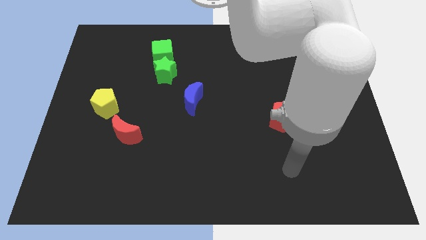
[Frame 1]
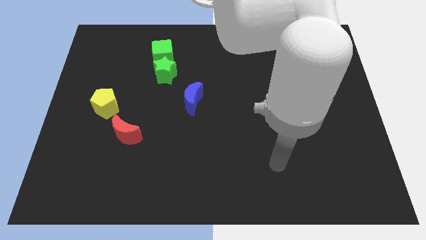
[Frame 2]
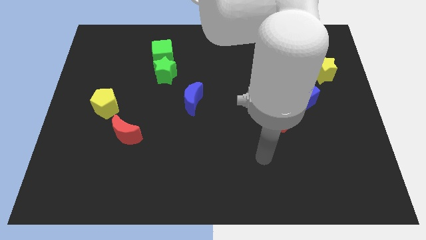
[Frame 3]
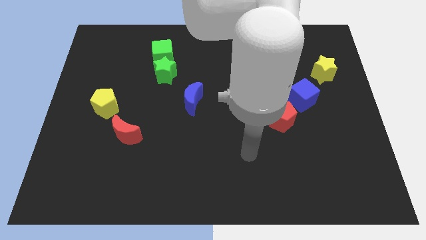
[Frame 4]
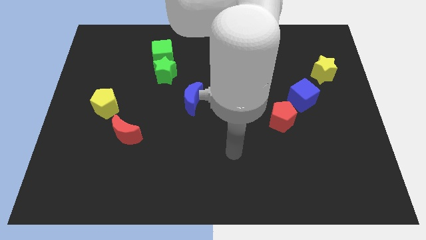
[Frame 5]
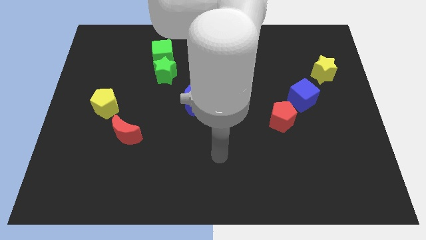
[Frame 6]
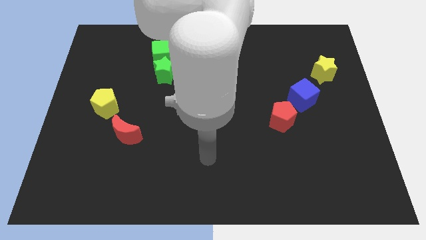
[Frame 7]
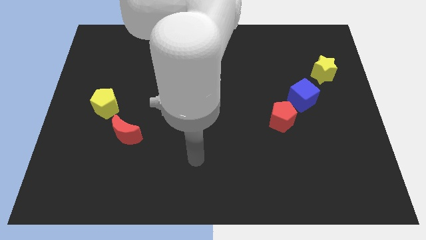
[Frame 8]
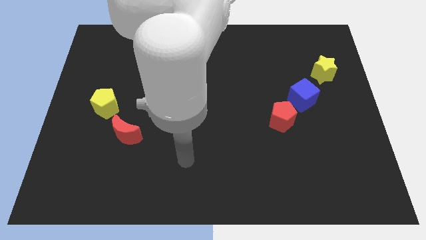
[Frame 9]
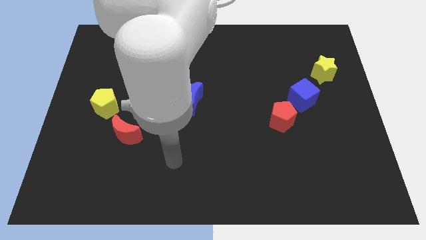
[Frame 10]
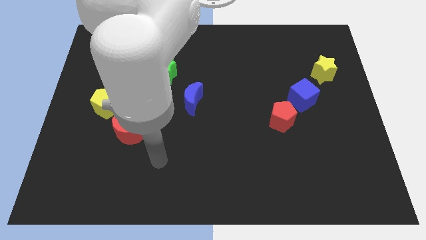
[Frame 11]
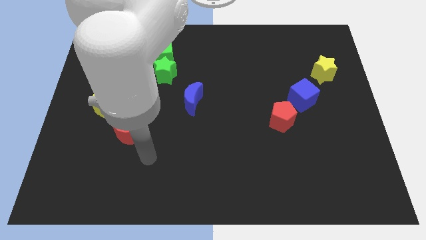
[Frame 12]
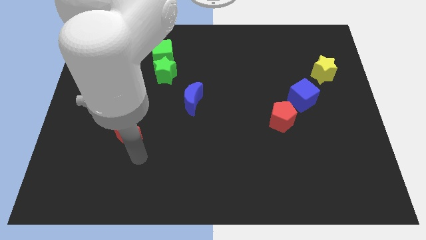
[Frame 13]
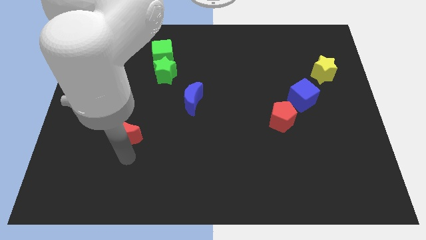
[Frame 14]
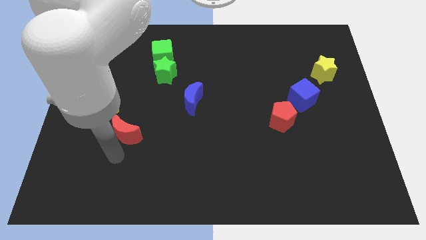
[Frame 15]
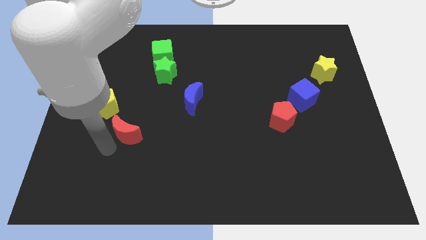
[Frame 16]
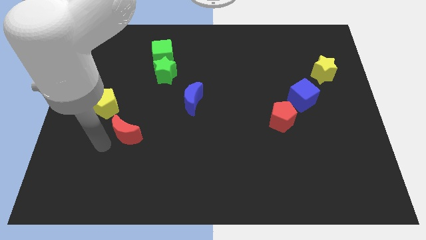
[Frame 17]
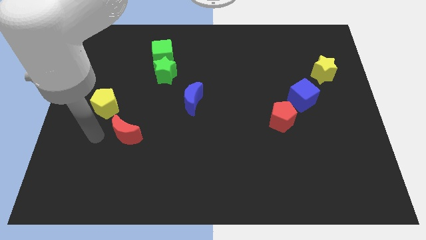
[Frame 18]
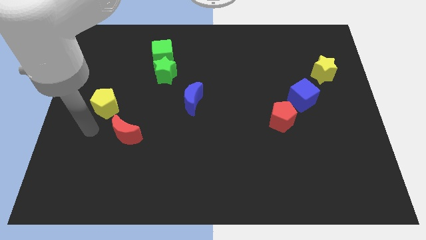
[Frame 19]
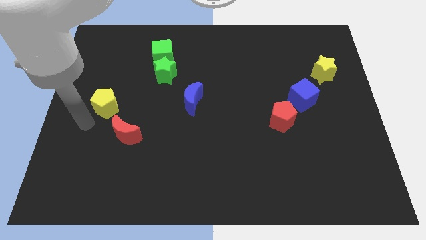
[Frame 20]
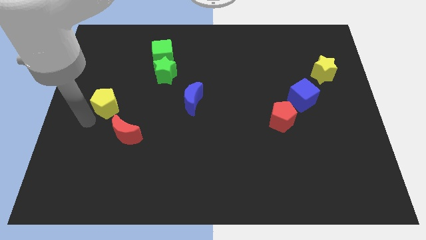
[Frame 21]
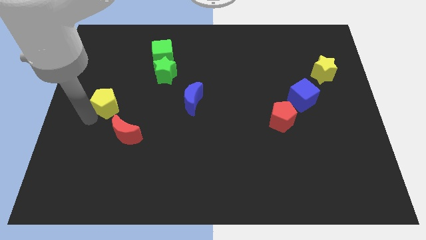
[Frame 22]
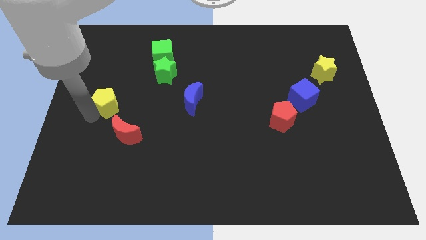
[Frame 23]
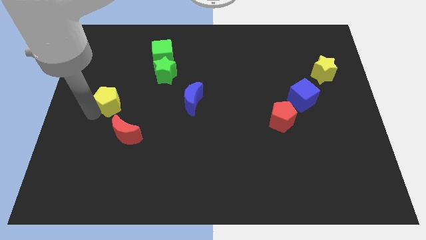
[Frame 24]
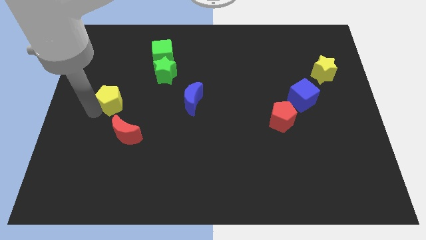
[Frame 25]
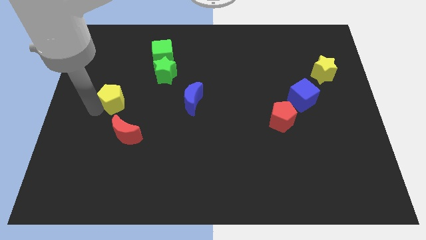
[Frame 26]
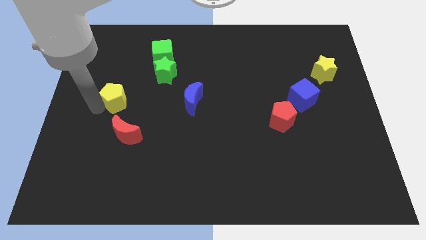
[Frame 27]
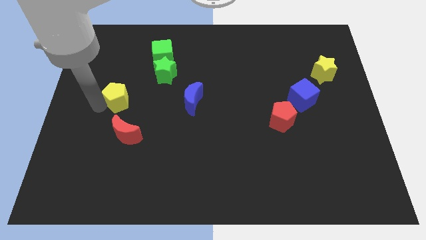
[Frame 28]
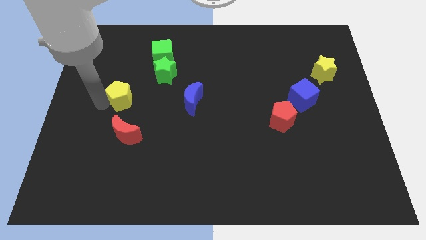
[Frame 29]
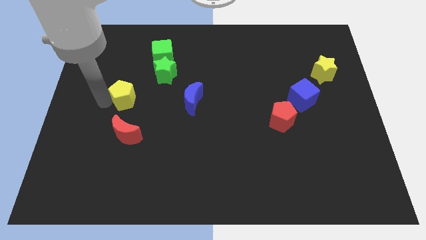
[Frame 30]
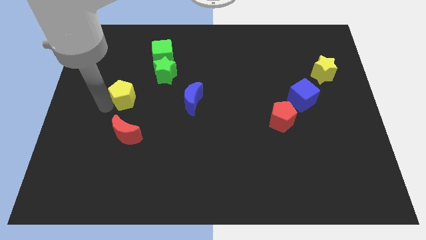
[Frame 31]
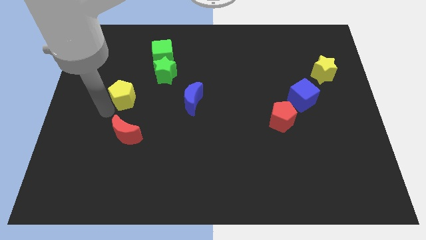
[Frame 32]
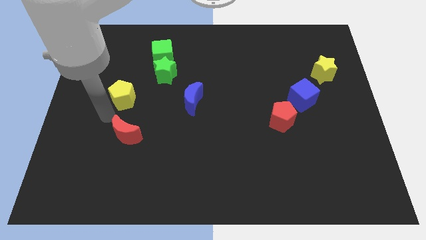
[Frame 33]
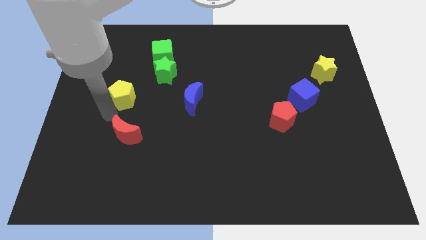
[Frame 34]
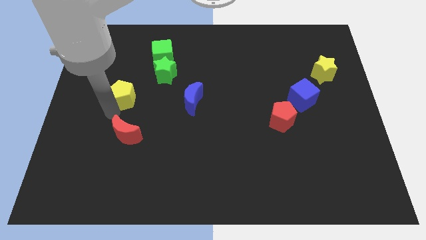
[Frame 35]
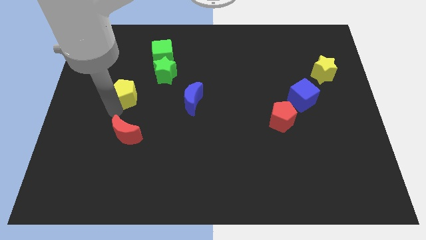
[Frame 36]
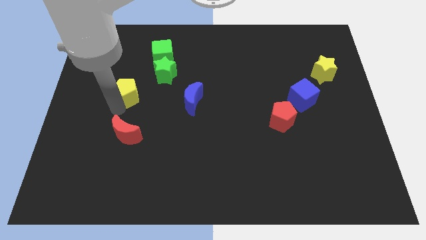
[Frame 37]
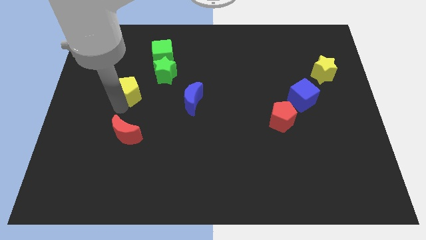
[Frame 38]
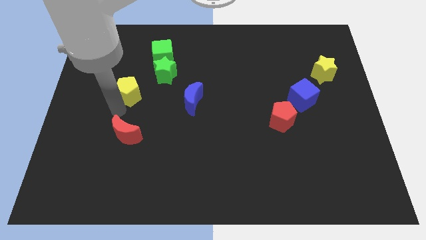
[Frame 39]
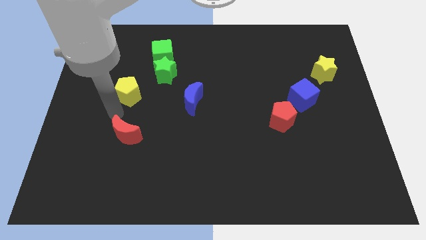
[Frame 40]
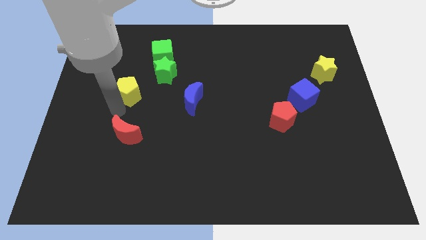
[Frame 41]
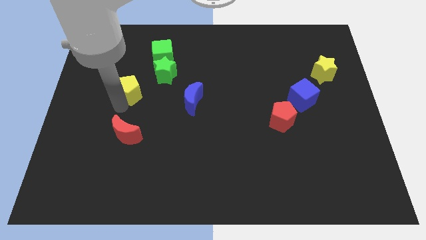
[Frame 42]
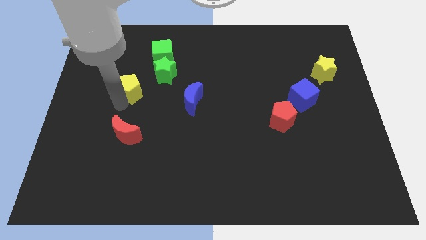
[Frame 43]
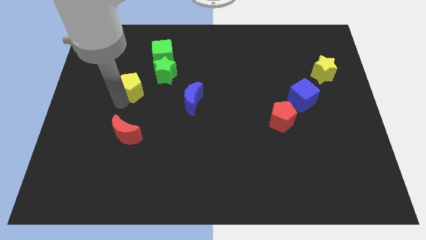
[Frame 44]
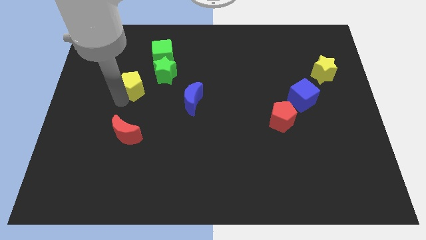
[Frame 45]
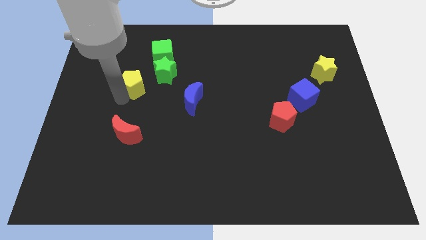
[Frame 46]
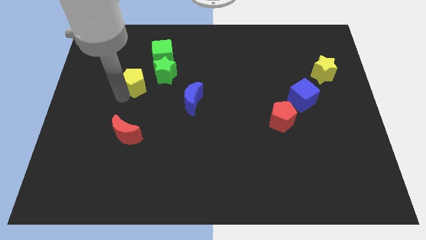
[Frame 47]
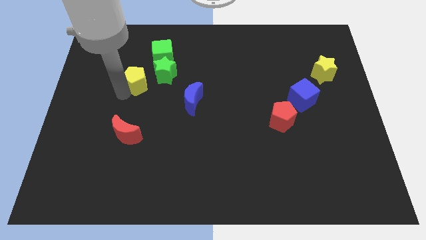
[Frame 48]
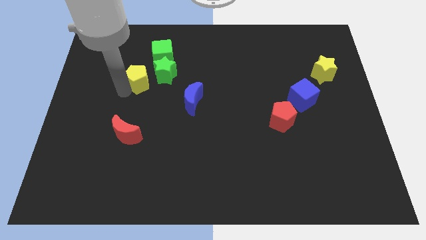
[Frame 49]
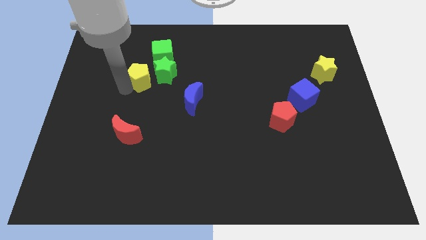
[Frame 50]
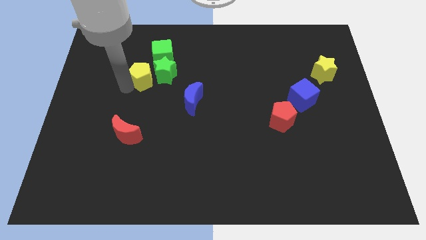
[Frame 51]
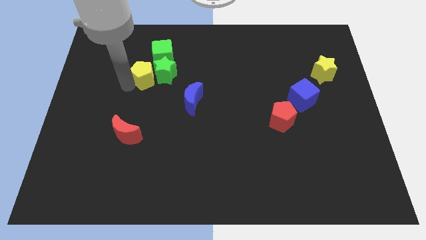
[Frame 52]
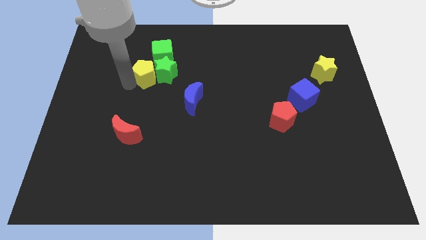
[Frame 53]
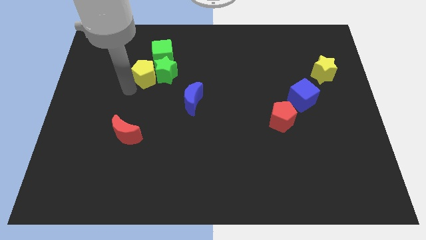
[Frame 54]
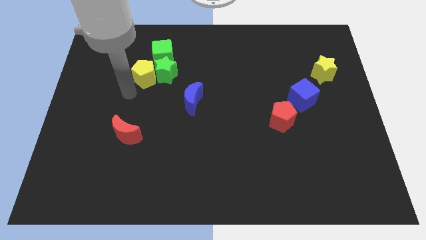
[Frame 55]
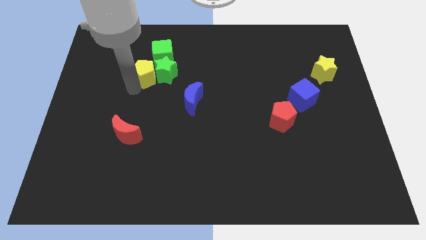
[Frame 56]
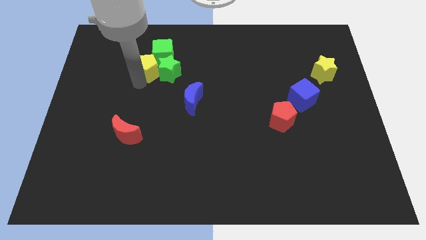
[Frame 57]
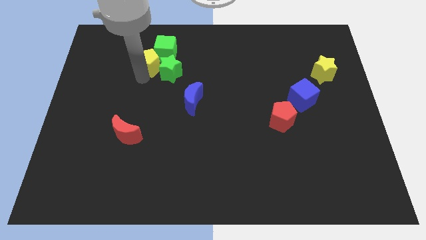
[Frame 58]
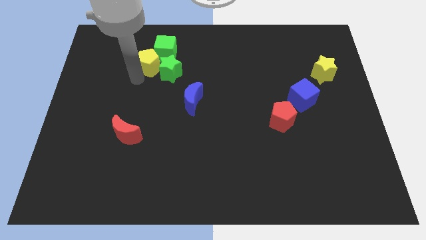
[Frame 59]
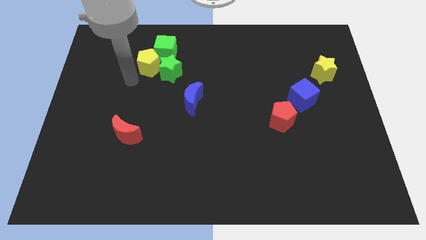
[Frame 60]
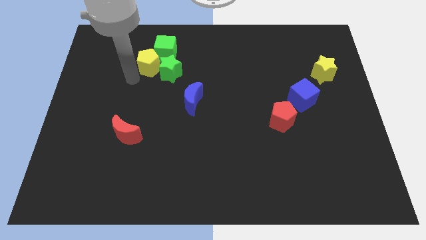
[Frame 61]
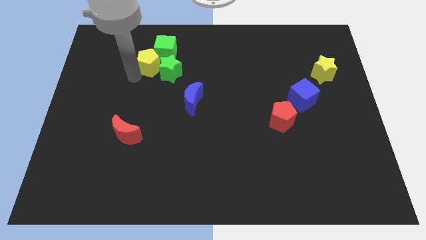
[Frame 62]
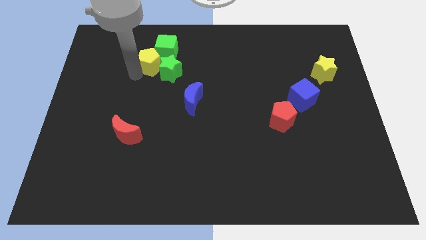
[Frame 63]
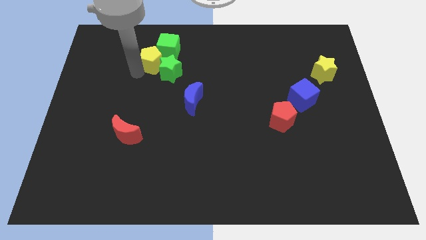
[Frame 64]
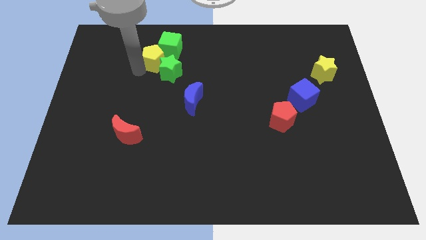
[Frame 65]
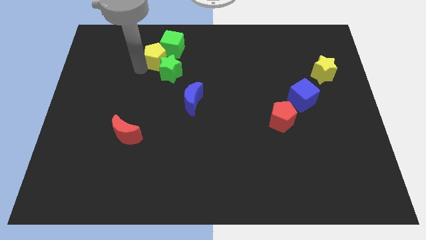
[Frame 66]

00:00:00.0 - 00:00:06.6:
push the yellow pentagon to the green cube
